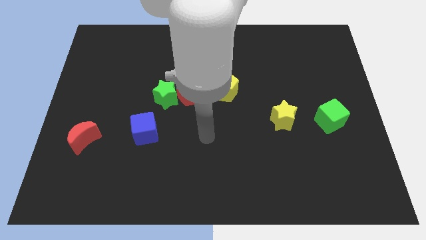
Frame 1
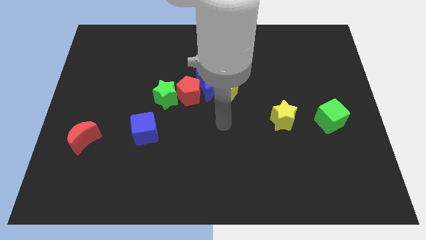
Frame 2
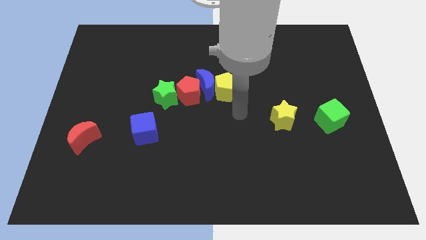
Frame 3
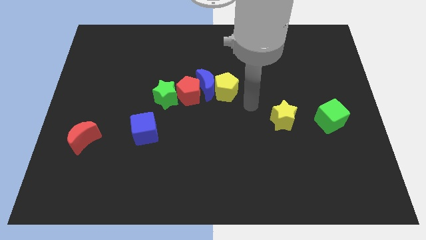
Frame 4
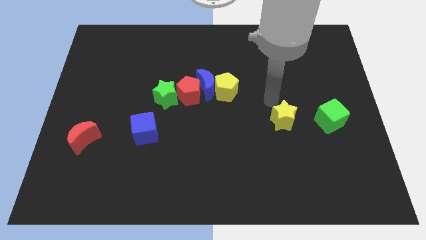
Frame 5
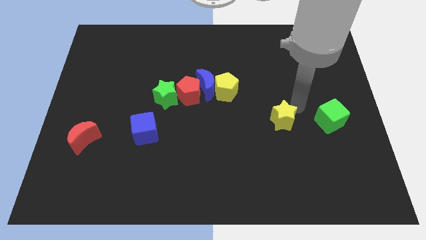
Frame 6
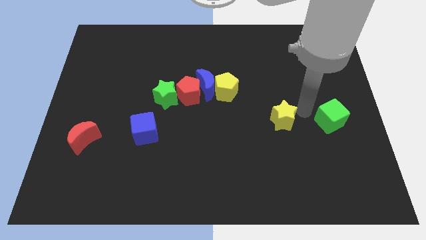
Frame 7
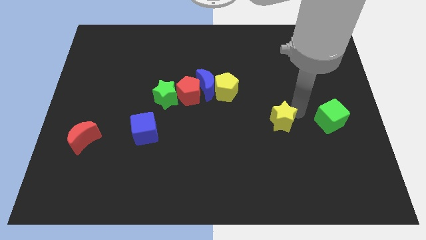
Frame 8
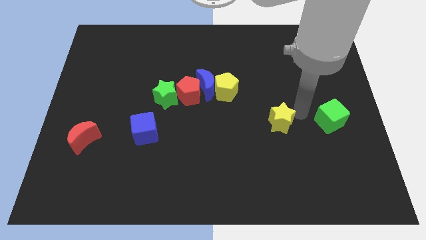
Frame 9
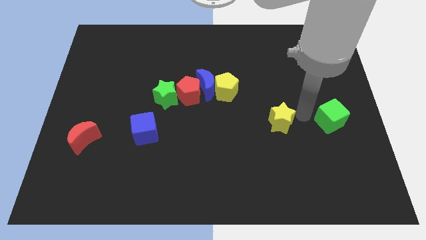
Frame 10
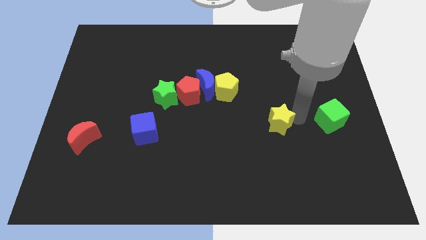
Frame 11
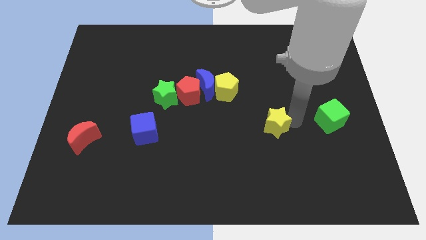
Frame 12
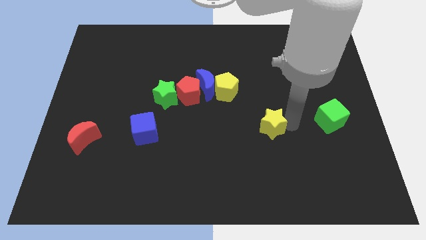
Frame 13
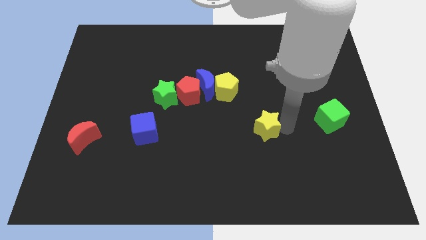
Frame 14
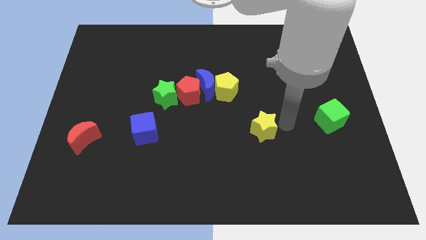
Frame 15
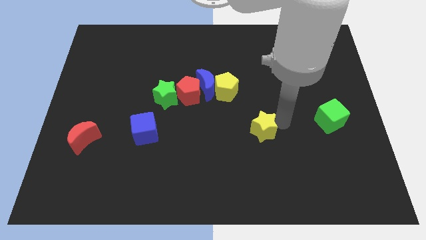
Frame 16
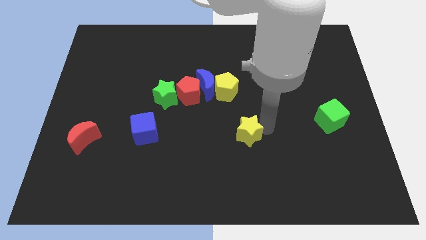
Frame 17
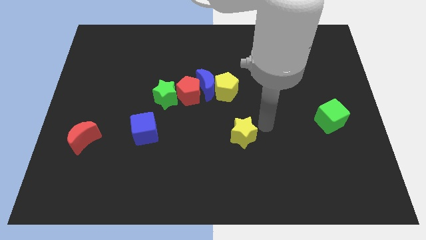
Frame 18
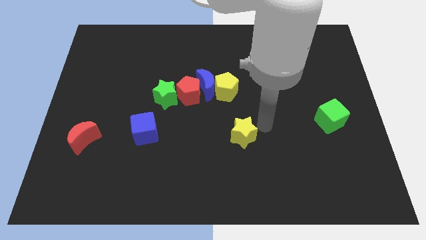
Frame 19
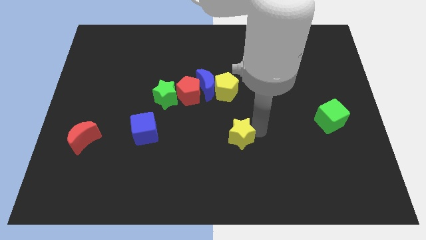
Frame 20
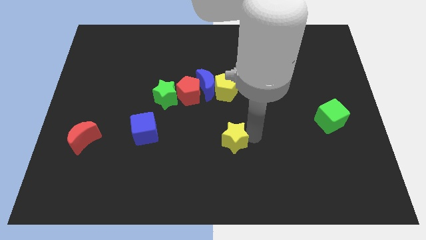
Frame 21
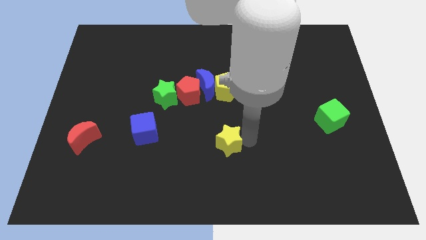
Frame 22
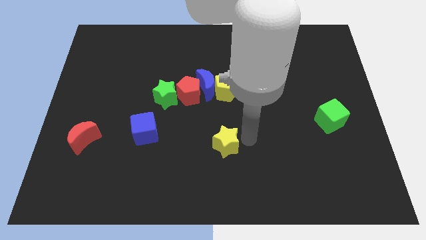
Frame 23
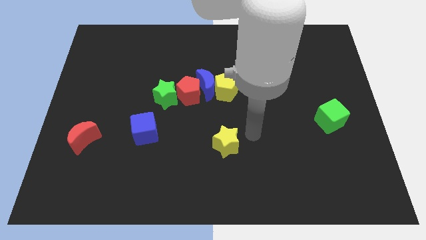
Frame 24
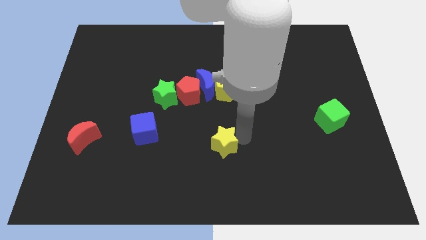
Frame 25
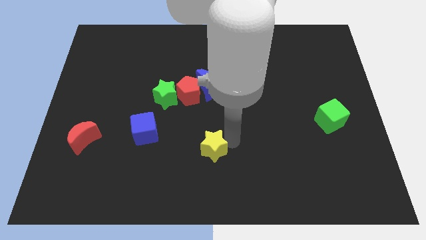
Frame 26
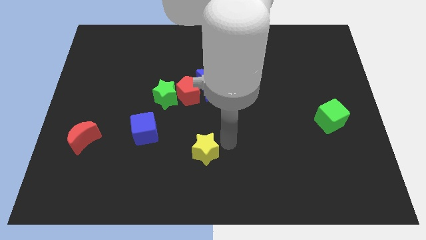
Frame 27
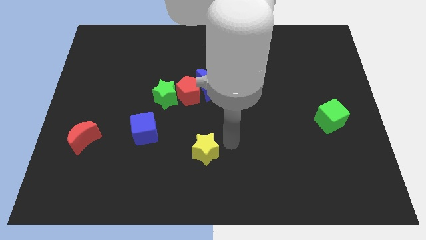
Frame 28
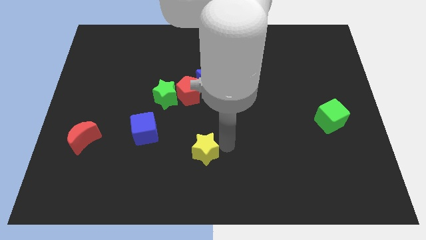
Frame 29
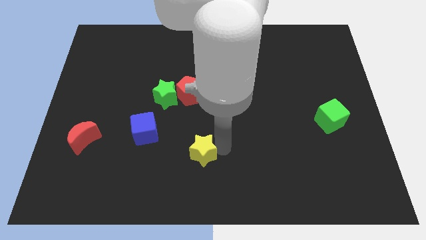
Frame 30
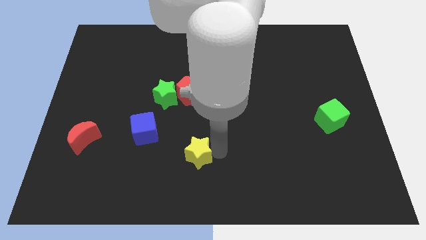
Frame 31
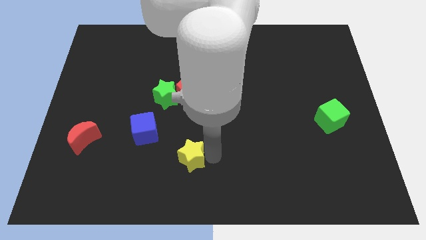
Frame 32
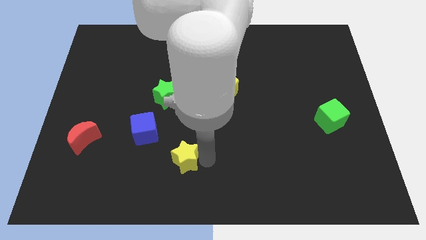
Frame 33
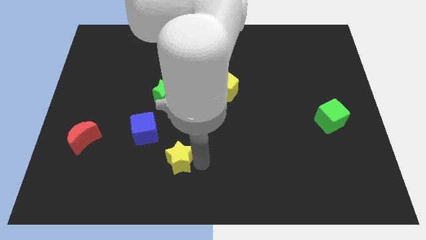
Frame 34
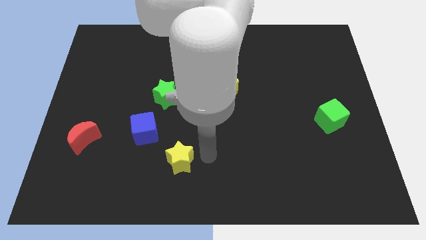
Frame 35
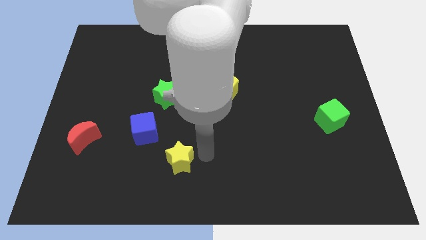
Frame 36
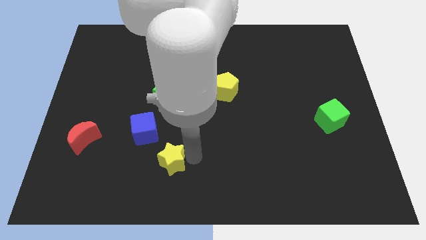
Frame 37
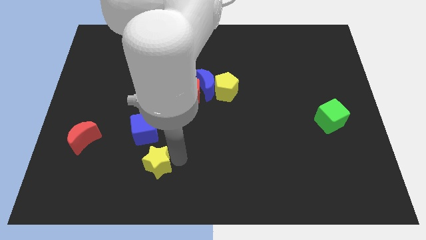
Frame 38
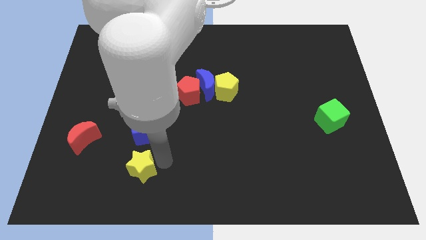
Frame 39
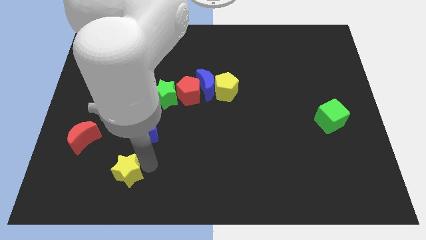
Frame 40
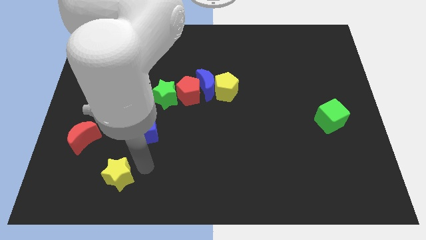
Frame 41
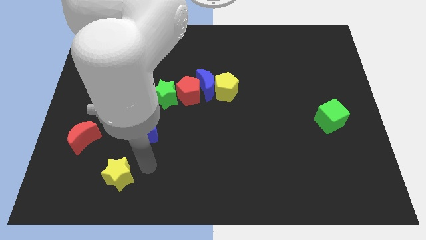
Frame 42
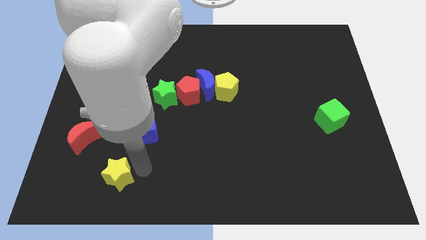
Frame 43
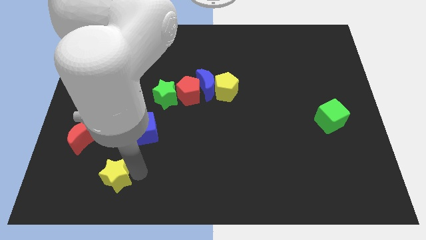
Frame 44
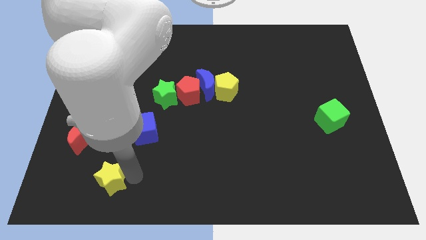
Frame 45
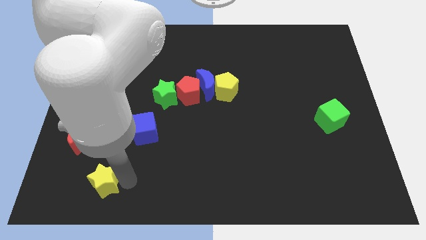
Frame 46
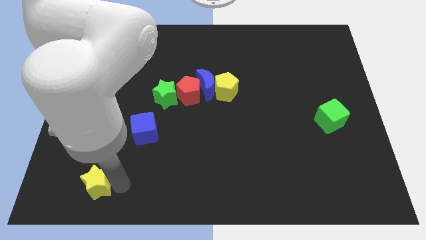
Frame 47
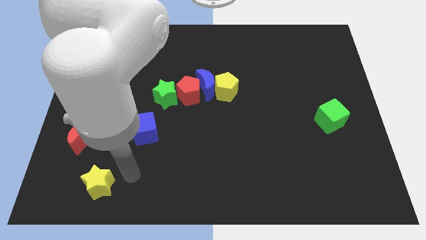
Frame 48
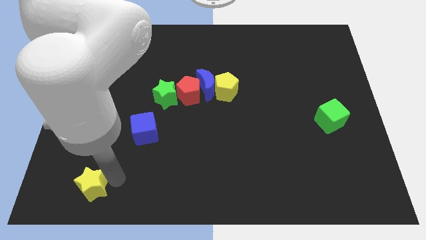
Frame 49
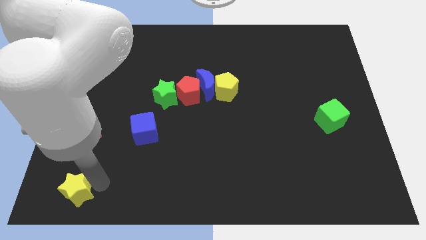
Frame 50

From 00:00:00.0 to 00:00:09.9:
slide the yellow star to the lower left corner

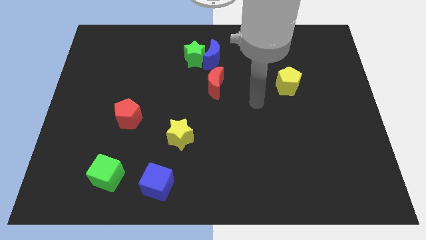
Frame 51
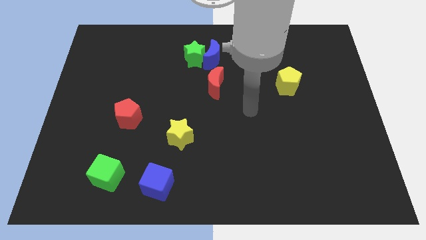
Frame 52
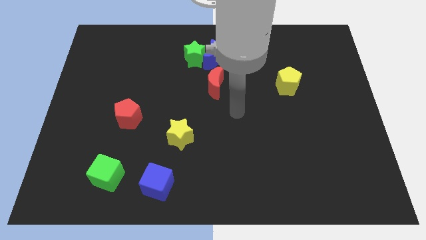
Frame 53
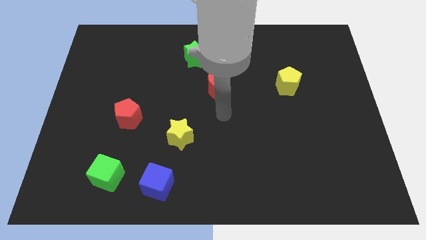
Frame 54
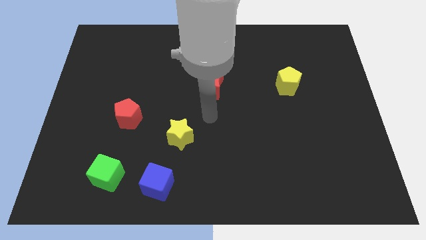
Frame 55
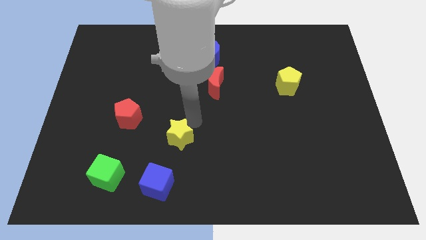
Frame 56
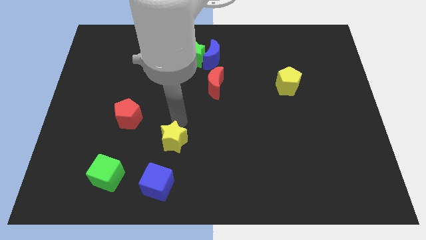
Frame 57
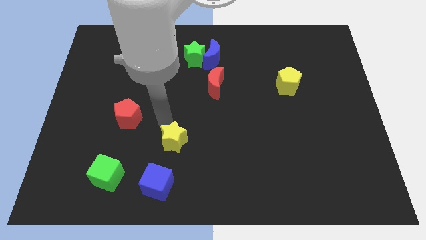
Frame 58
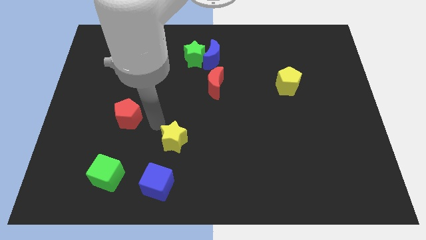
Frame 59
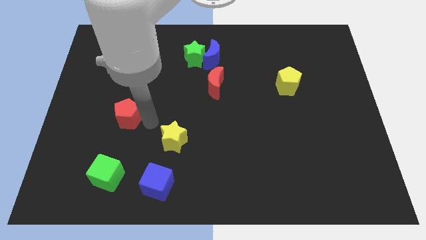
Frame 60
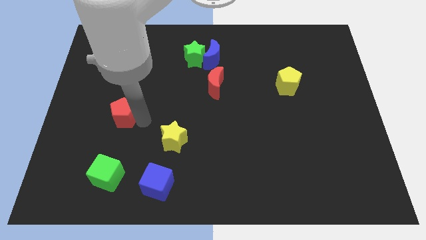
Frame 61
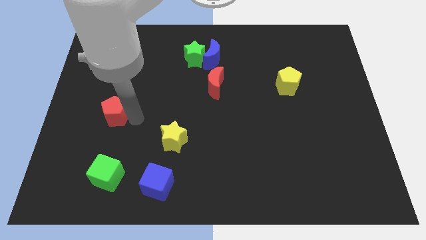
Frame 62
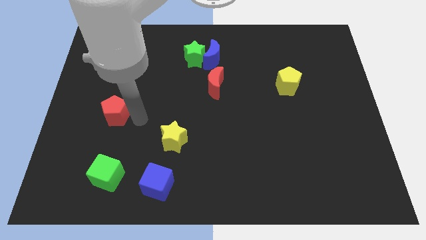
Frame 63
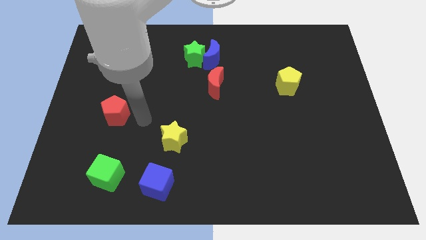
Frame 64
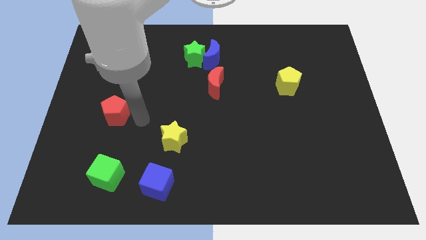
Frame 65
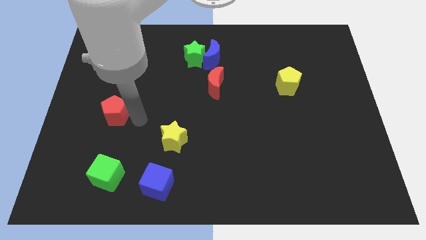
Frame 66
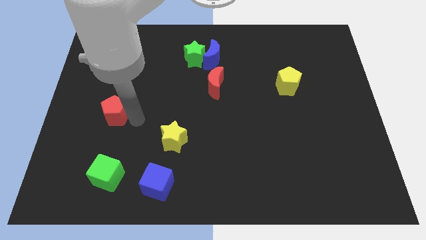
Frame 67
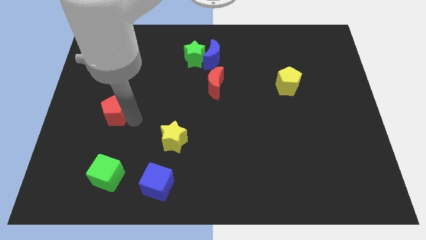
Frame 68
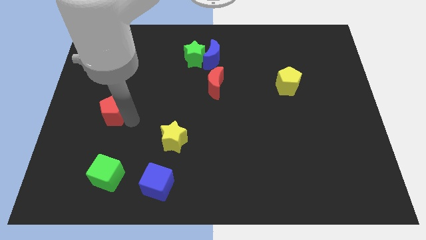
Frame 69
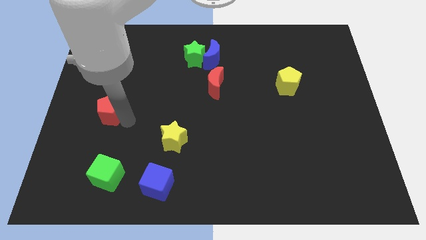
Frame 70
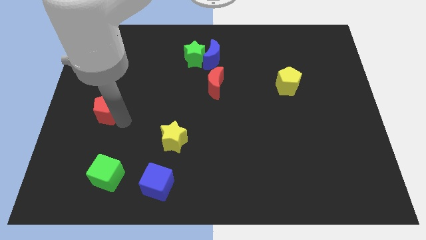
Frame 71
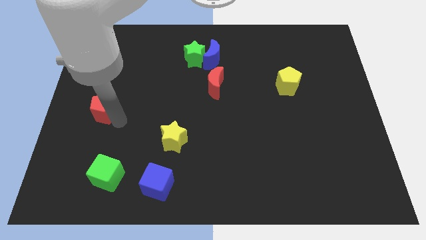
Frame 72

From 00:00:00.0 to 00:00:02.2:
push the red pentagon to the left side

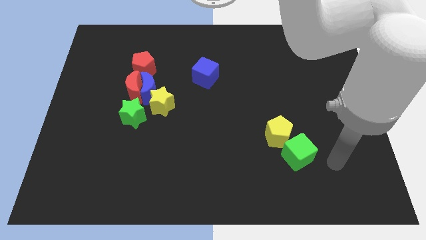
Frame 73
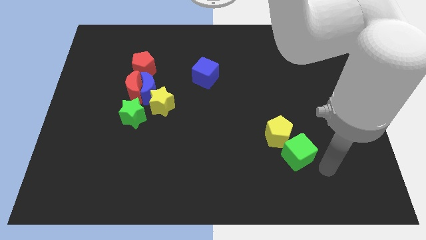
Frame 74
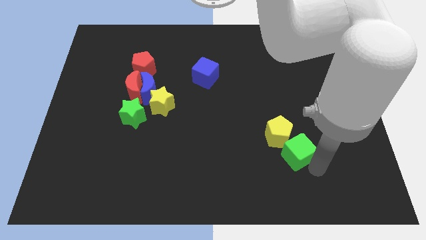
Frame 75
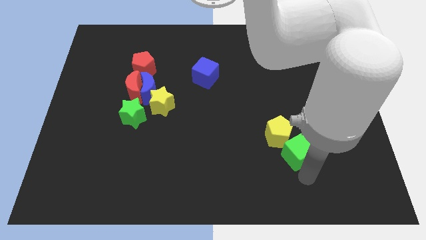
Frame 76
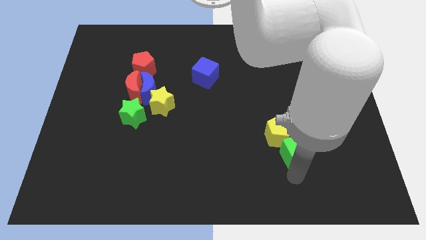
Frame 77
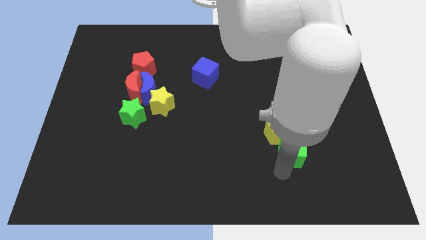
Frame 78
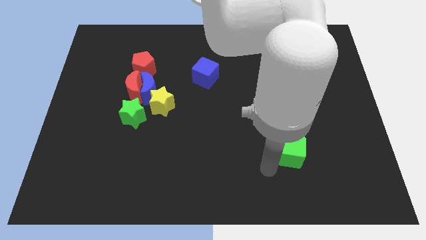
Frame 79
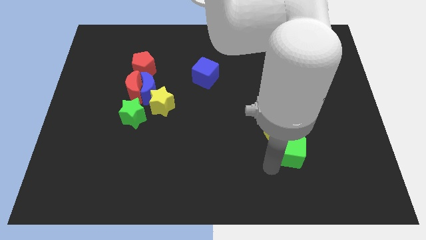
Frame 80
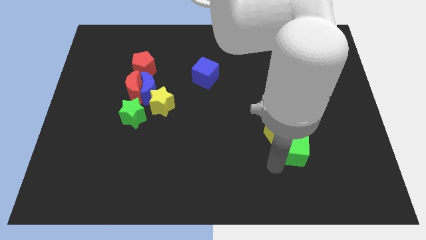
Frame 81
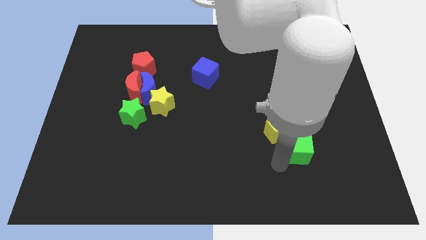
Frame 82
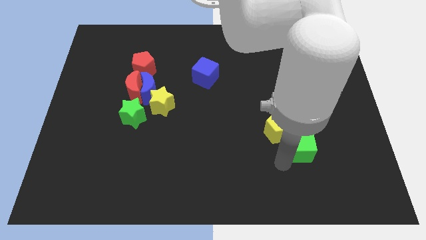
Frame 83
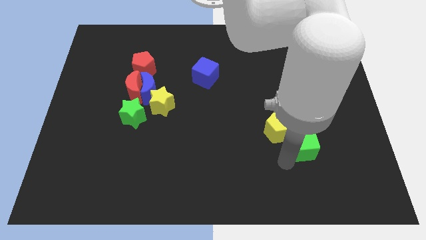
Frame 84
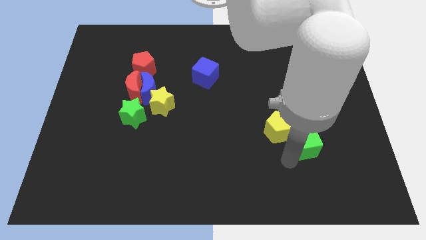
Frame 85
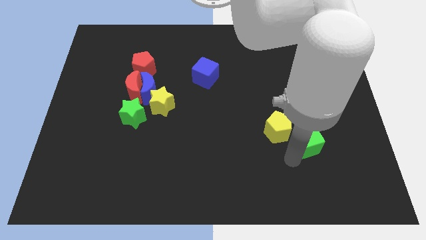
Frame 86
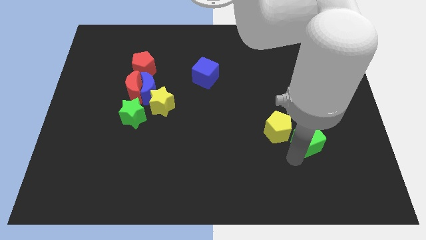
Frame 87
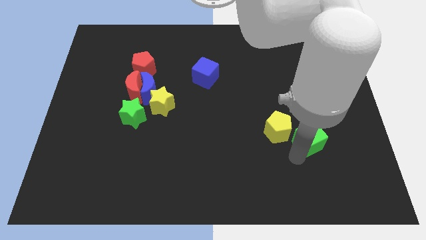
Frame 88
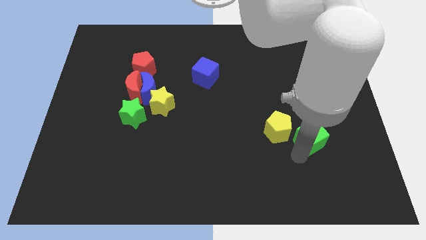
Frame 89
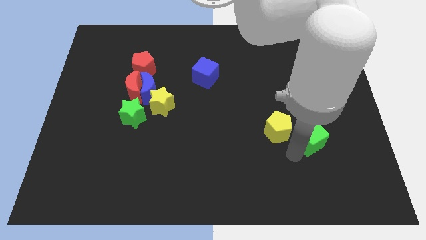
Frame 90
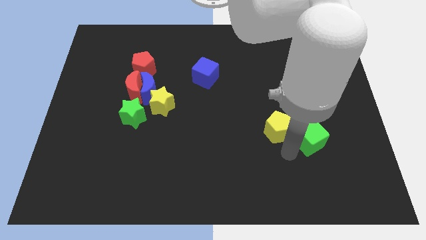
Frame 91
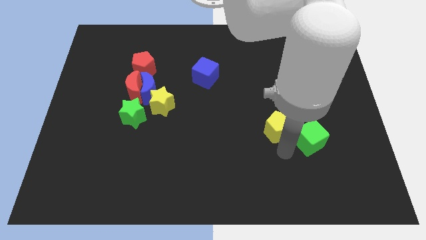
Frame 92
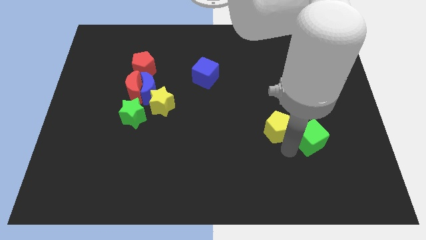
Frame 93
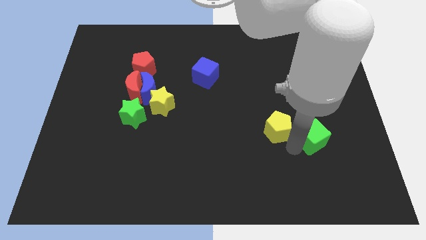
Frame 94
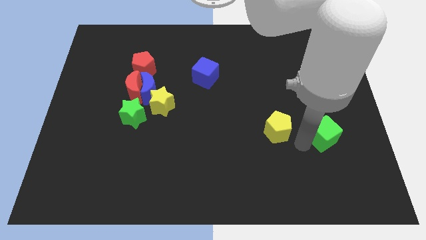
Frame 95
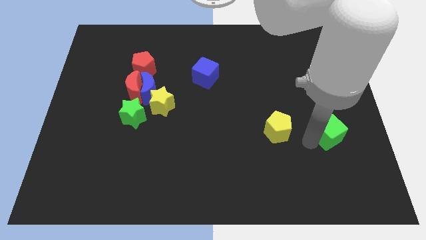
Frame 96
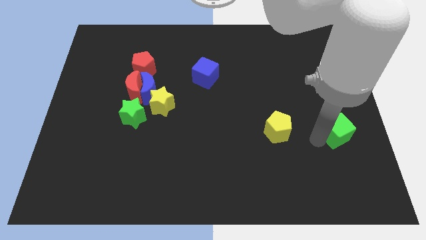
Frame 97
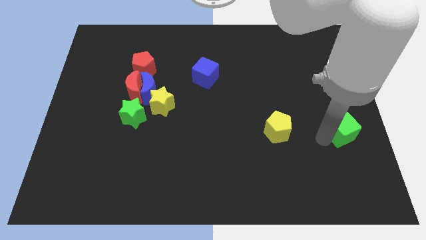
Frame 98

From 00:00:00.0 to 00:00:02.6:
slide the green cube to the right side
